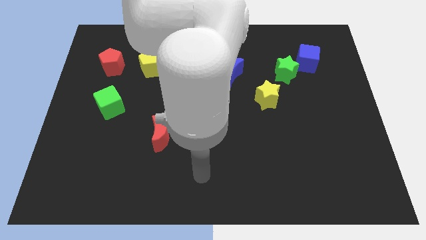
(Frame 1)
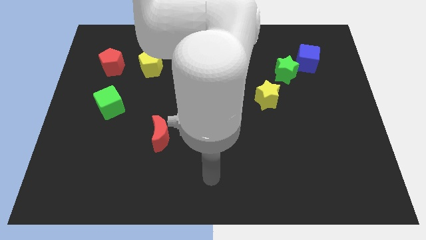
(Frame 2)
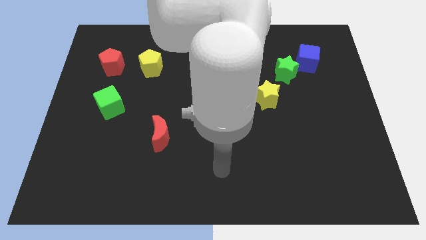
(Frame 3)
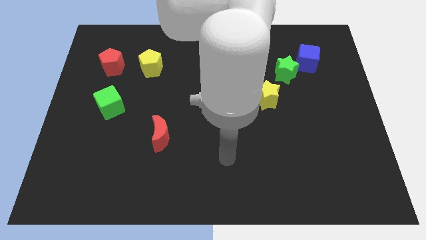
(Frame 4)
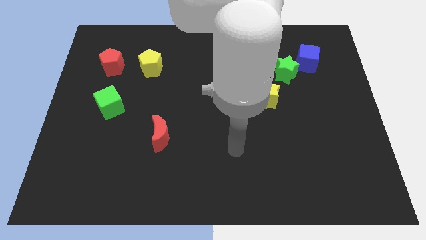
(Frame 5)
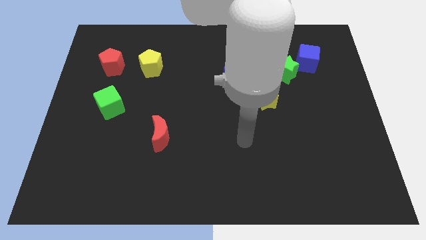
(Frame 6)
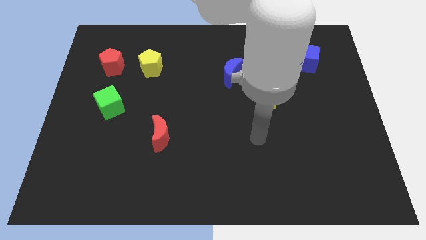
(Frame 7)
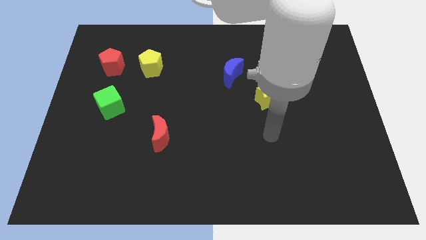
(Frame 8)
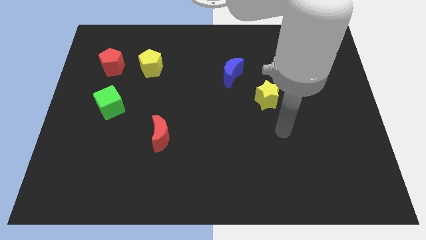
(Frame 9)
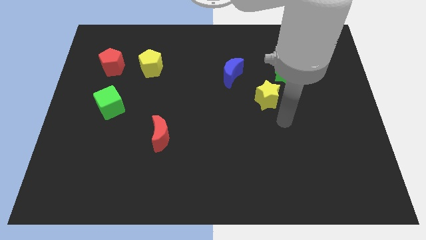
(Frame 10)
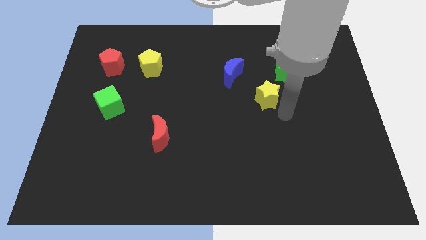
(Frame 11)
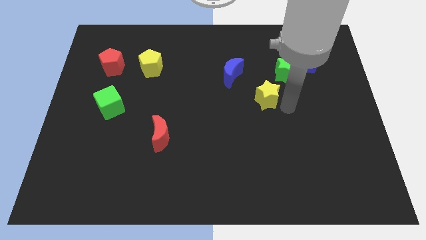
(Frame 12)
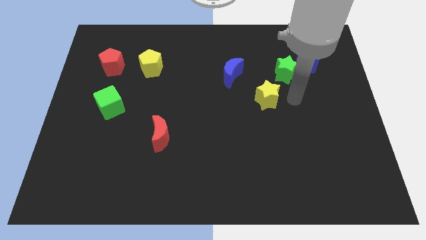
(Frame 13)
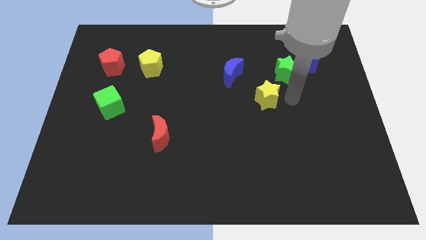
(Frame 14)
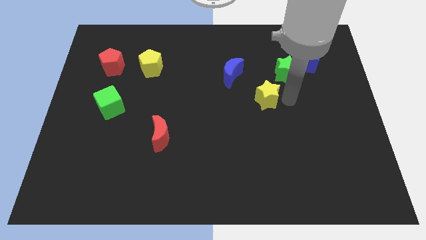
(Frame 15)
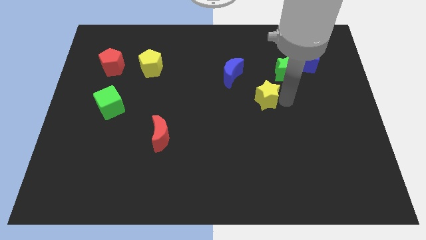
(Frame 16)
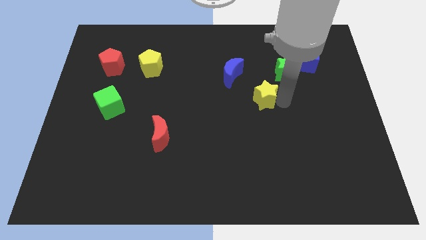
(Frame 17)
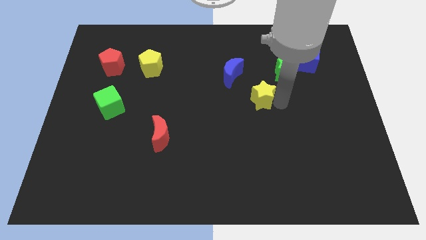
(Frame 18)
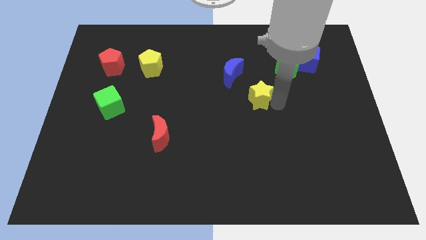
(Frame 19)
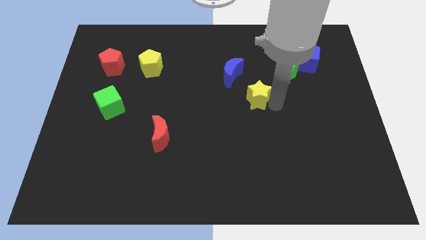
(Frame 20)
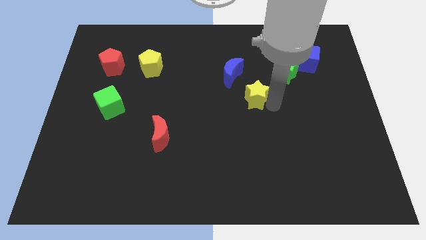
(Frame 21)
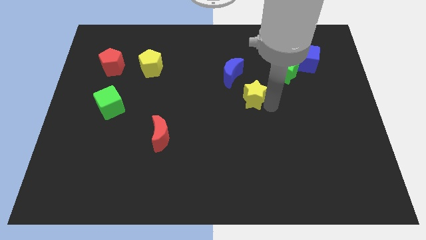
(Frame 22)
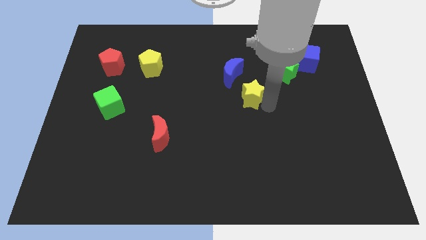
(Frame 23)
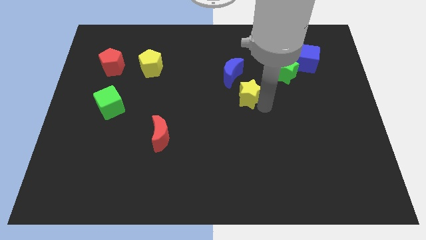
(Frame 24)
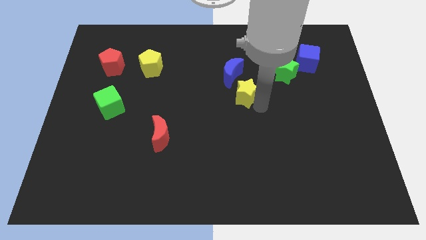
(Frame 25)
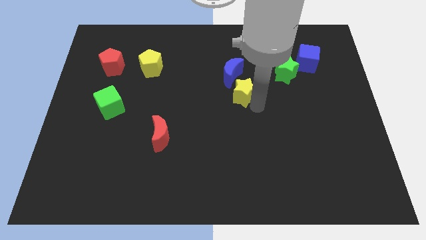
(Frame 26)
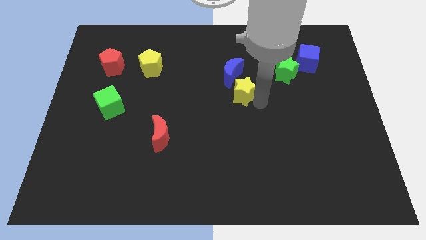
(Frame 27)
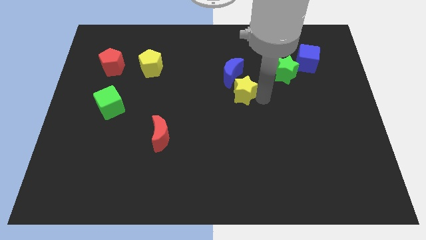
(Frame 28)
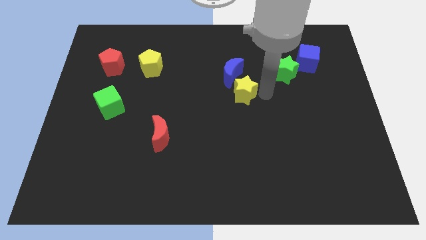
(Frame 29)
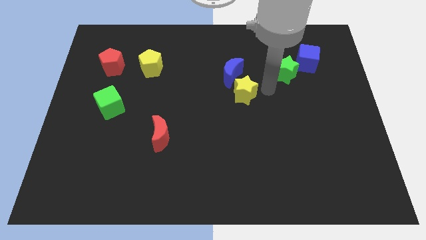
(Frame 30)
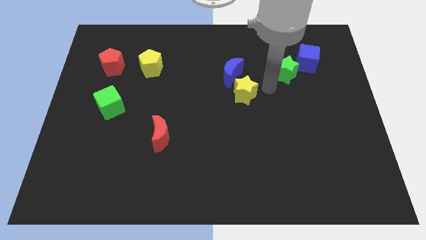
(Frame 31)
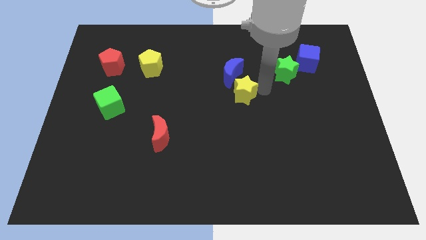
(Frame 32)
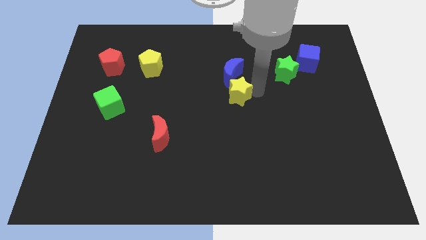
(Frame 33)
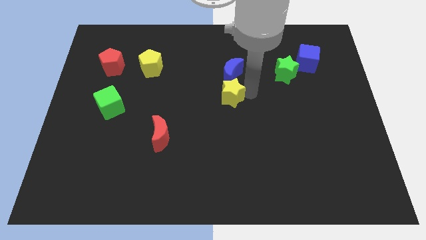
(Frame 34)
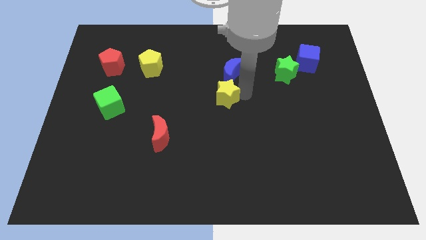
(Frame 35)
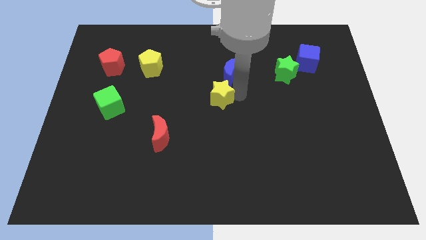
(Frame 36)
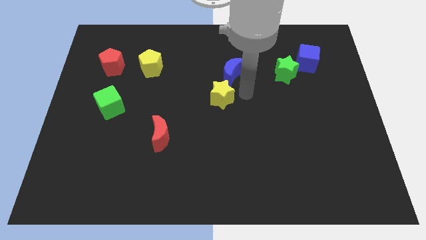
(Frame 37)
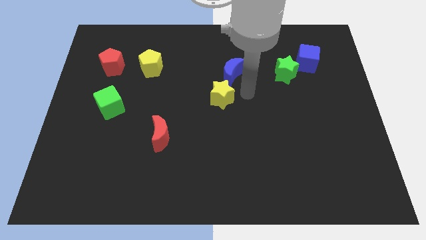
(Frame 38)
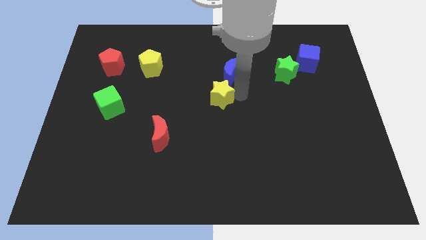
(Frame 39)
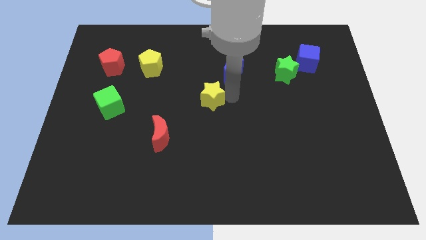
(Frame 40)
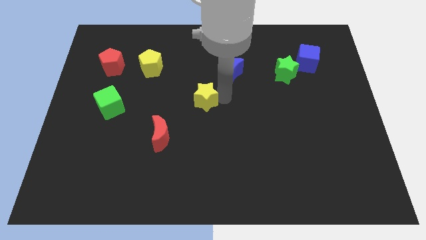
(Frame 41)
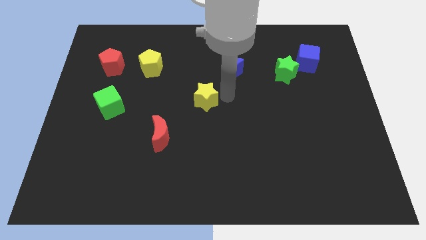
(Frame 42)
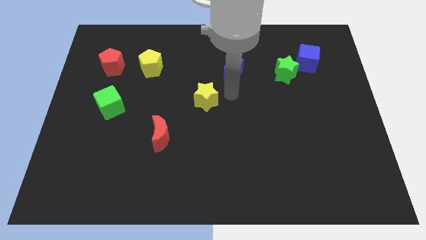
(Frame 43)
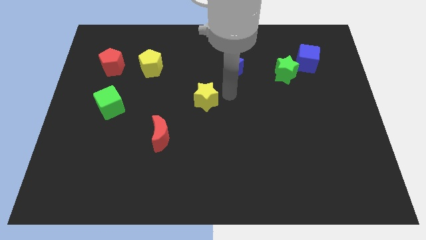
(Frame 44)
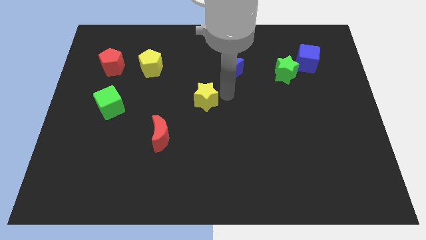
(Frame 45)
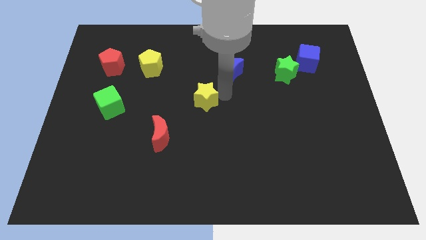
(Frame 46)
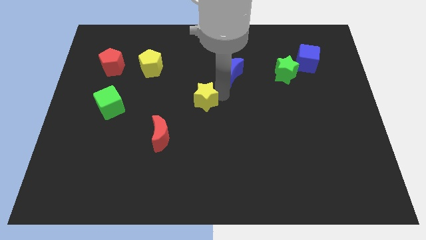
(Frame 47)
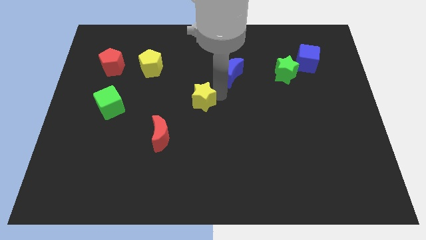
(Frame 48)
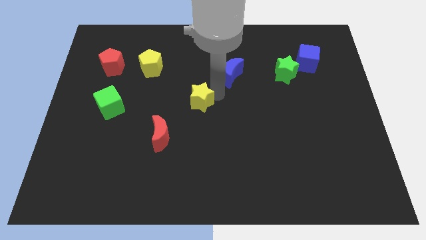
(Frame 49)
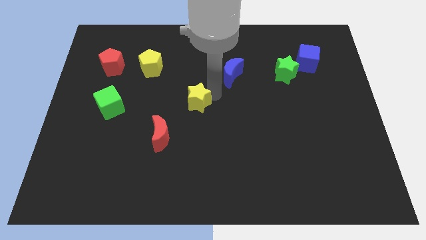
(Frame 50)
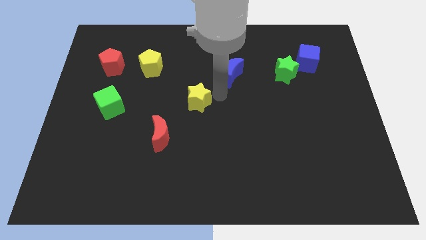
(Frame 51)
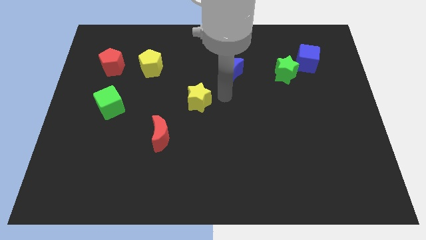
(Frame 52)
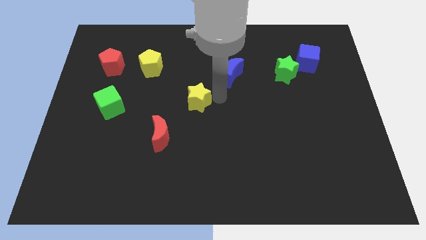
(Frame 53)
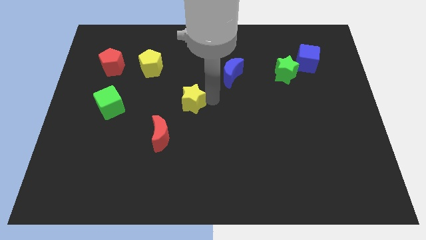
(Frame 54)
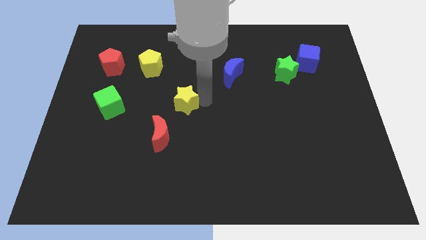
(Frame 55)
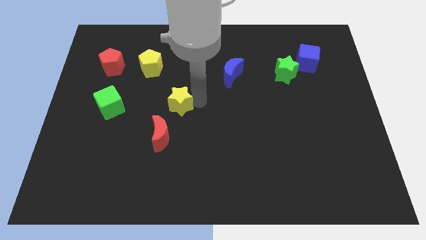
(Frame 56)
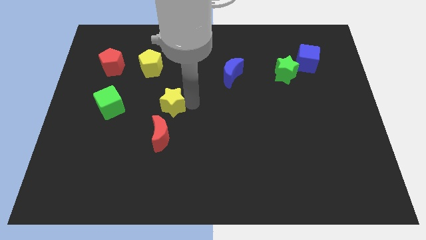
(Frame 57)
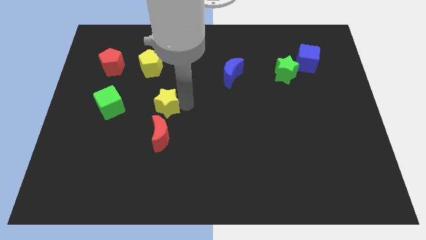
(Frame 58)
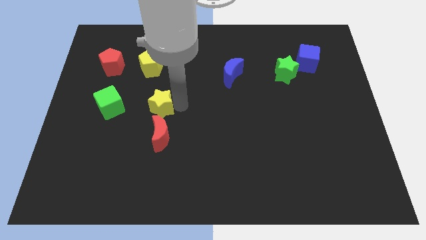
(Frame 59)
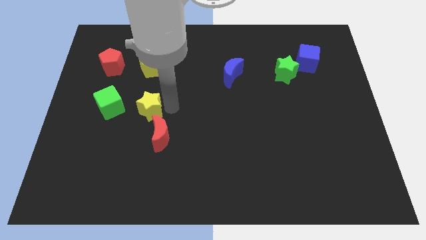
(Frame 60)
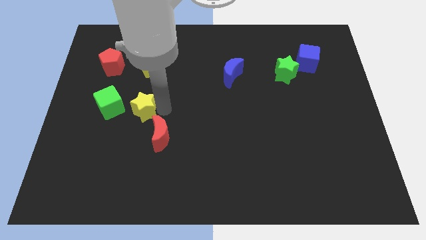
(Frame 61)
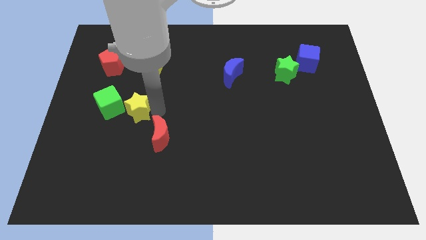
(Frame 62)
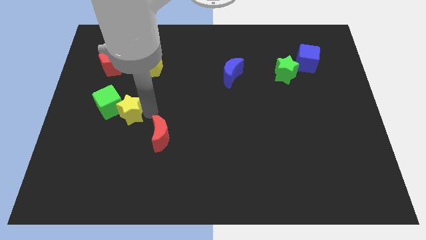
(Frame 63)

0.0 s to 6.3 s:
put the yellow star close to the green cube
